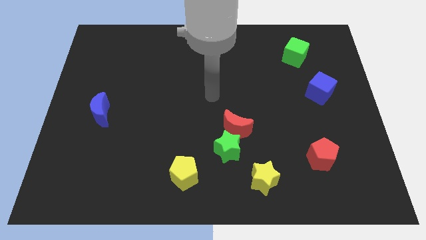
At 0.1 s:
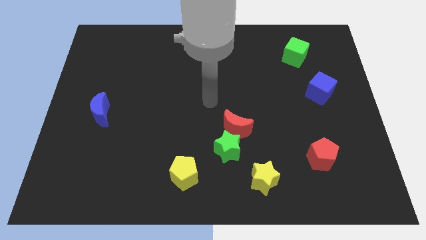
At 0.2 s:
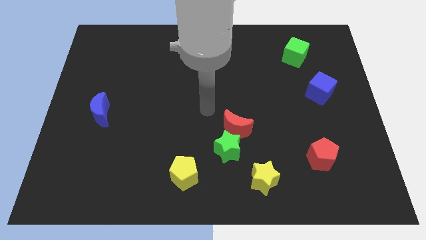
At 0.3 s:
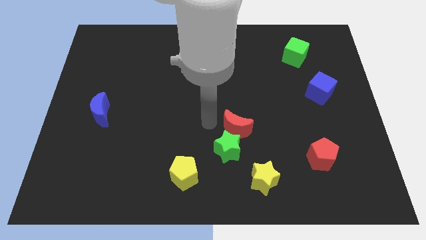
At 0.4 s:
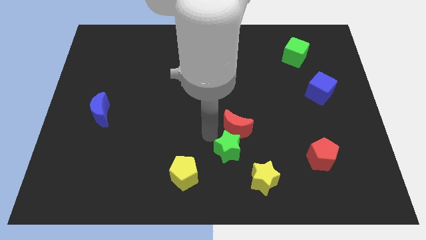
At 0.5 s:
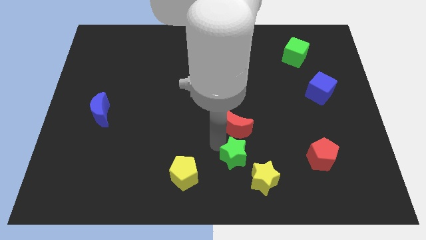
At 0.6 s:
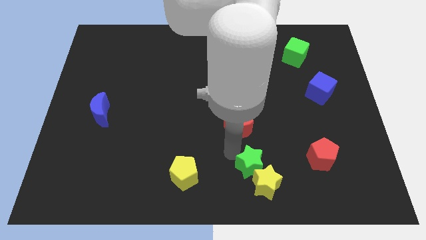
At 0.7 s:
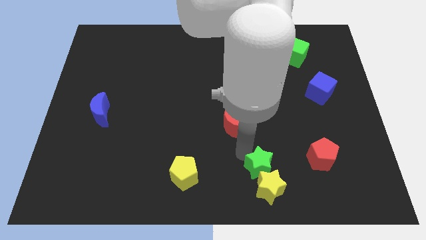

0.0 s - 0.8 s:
pull the red moon apart from the green star

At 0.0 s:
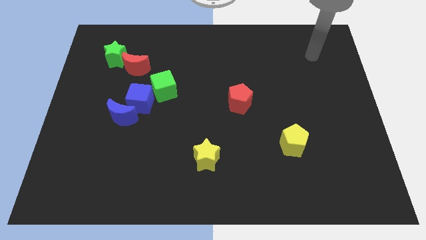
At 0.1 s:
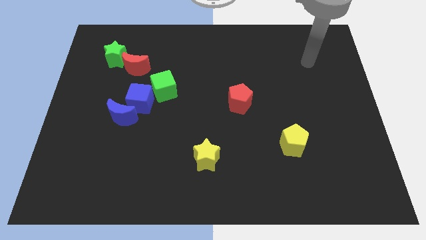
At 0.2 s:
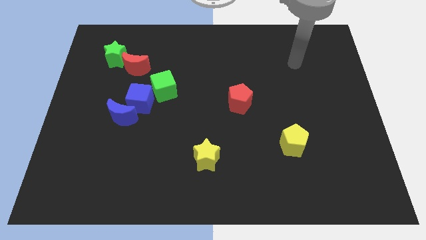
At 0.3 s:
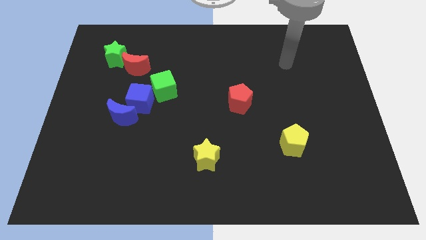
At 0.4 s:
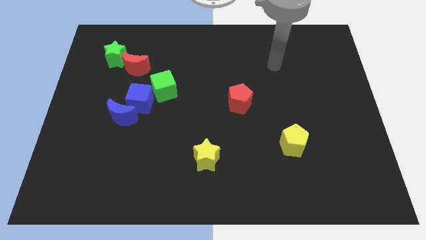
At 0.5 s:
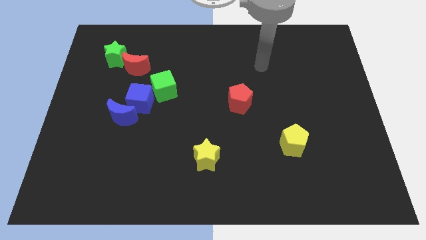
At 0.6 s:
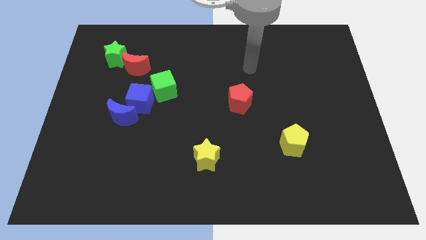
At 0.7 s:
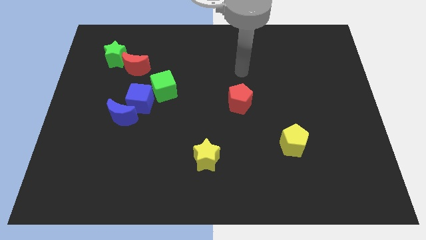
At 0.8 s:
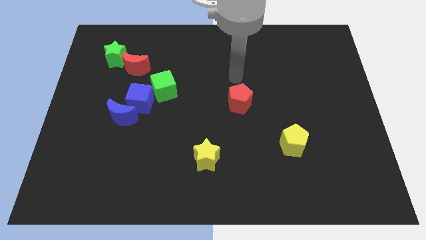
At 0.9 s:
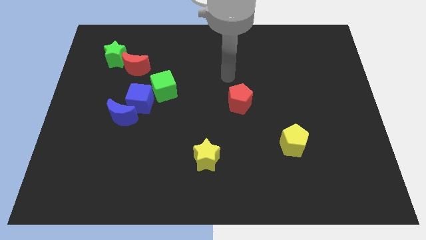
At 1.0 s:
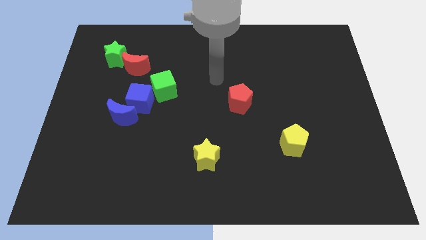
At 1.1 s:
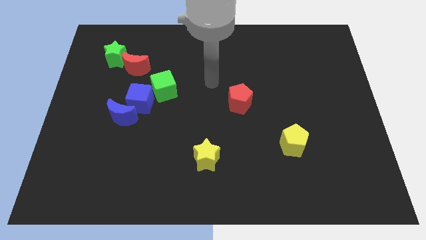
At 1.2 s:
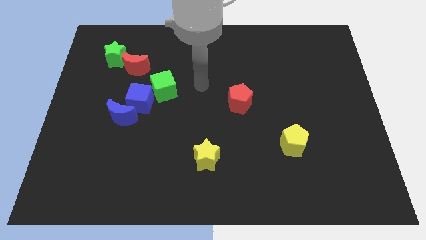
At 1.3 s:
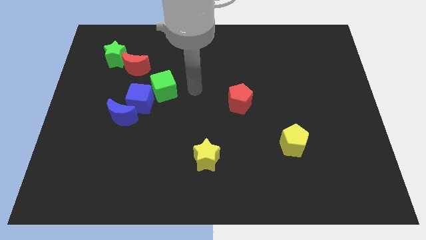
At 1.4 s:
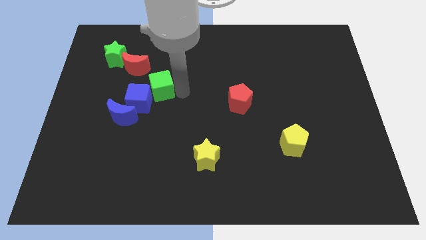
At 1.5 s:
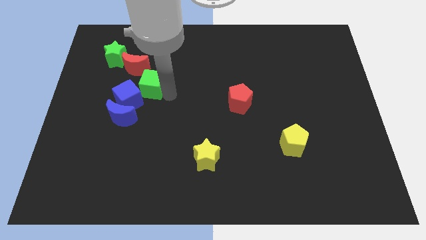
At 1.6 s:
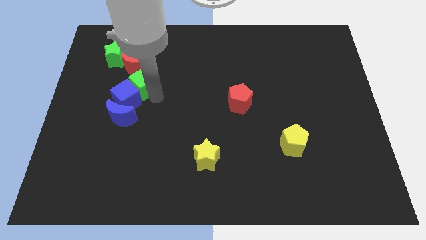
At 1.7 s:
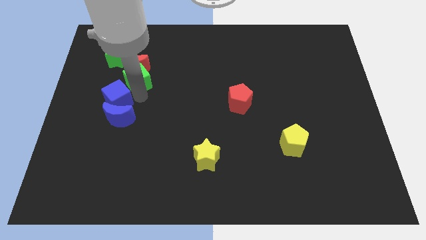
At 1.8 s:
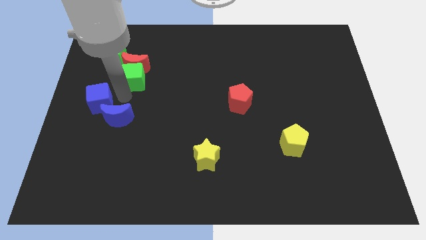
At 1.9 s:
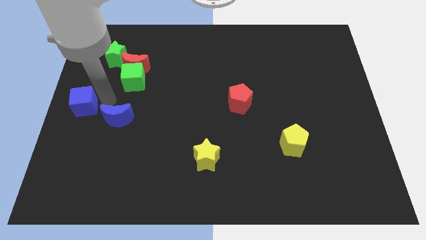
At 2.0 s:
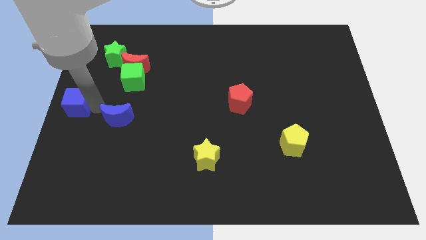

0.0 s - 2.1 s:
separate the blue moon from the blue cube

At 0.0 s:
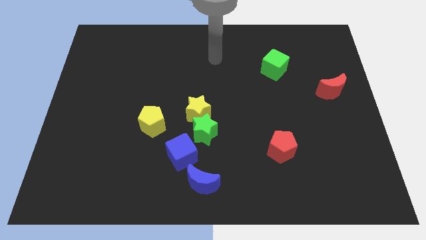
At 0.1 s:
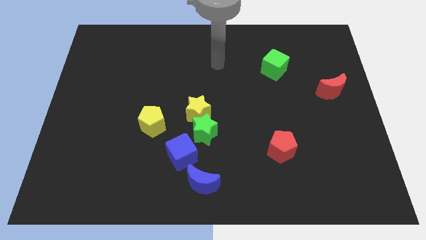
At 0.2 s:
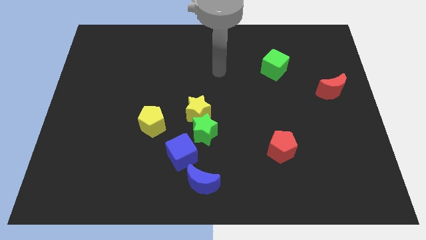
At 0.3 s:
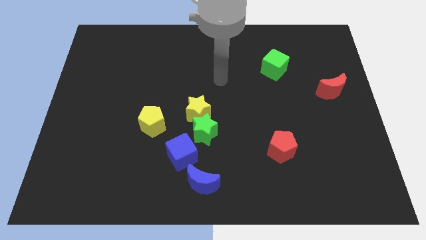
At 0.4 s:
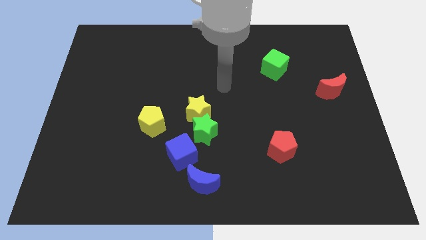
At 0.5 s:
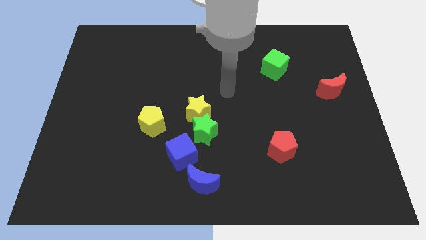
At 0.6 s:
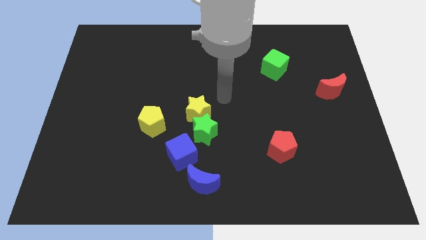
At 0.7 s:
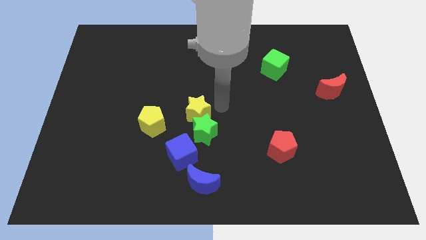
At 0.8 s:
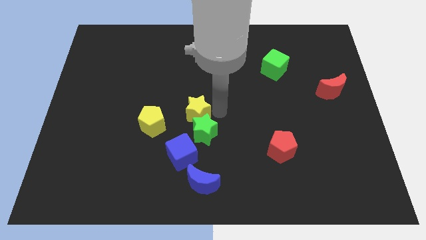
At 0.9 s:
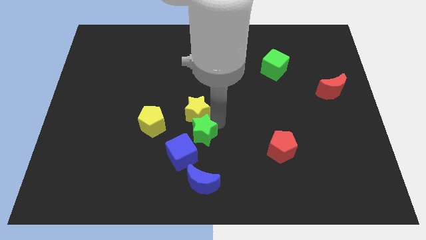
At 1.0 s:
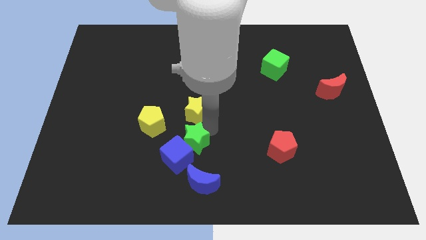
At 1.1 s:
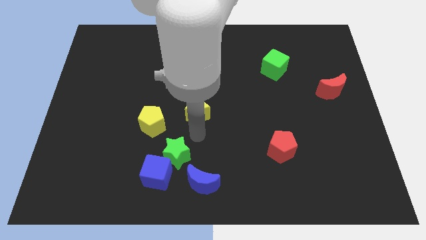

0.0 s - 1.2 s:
move the yellow star away from the green star

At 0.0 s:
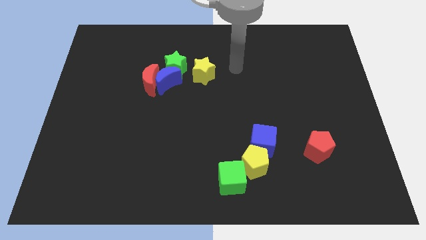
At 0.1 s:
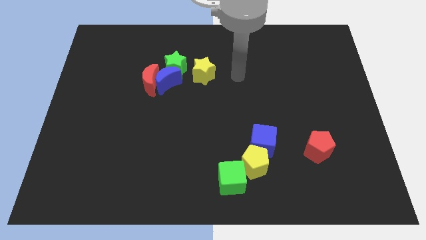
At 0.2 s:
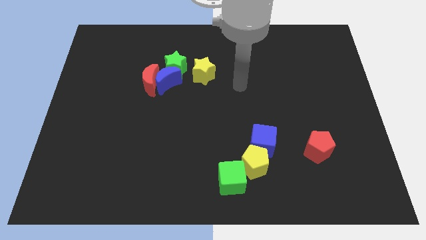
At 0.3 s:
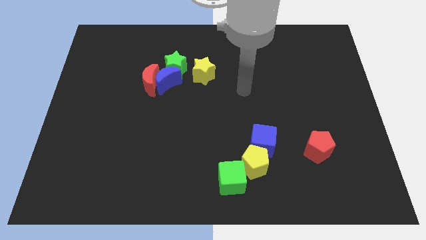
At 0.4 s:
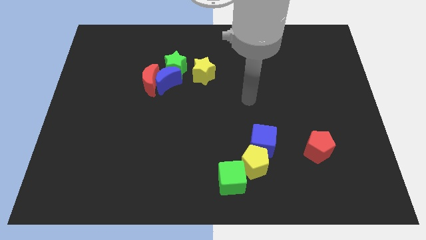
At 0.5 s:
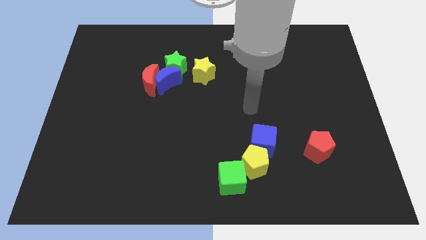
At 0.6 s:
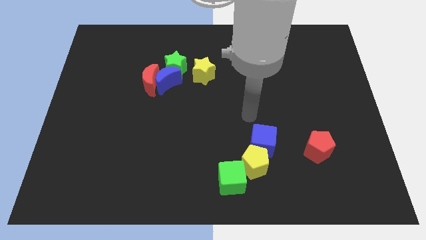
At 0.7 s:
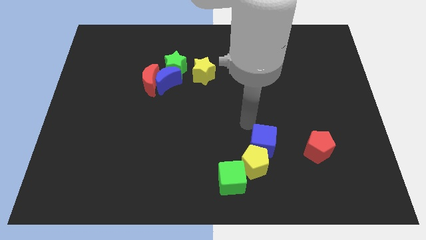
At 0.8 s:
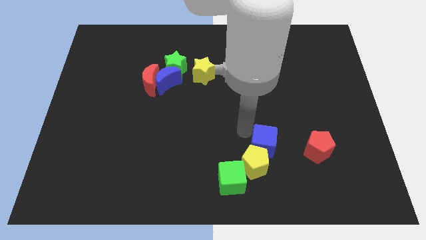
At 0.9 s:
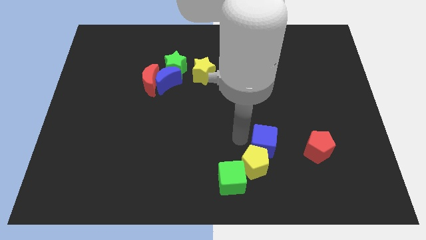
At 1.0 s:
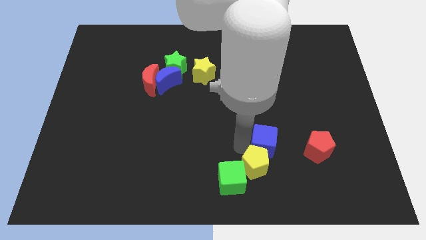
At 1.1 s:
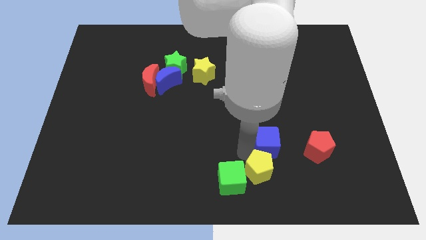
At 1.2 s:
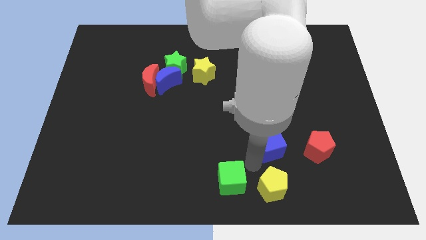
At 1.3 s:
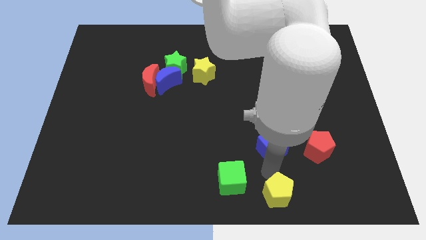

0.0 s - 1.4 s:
pull the blue cube apart from the yellow pentagon

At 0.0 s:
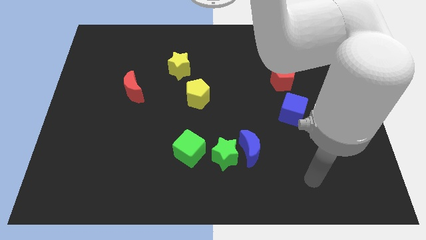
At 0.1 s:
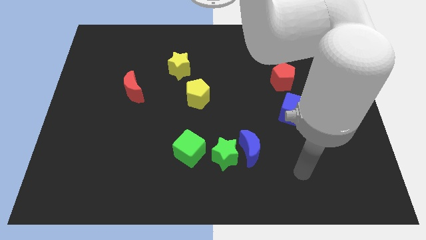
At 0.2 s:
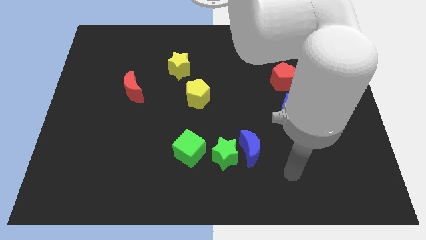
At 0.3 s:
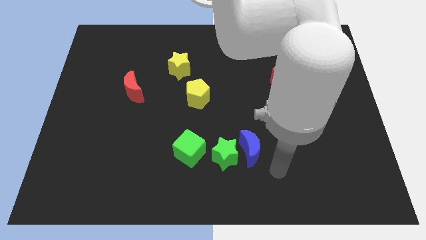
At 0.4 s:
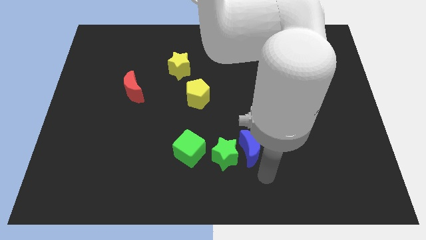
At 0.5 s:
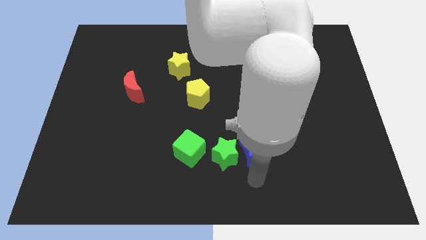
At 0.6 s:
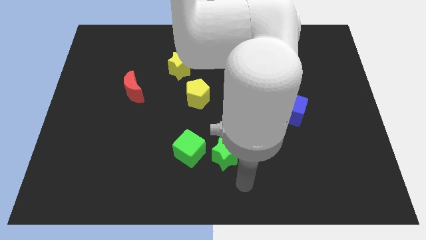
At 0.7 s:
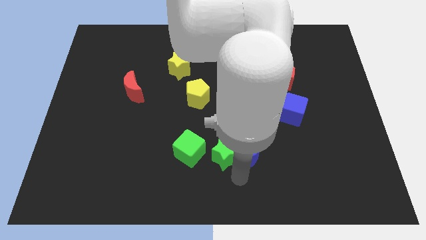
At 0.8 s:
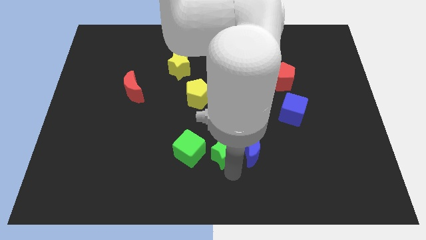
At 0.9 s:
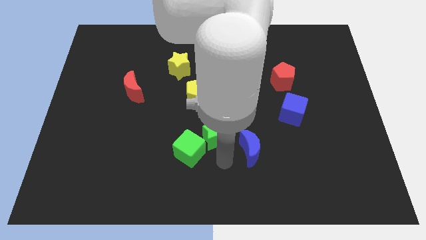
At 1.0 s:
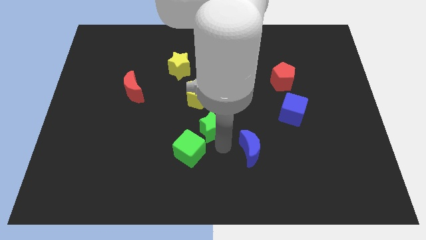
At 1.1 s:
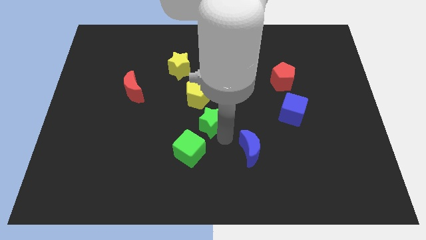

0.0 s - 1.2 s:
pull the blue moon apart from the green star

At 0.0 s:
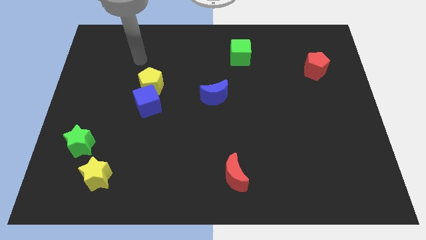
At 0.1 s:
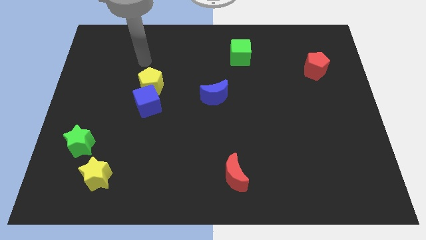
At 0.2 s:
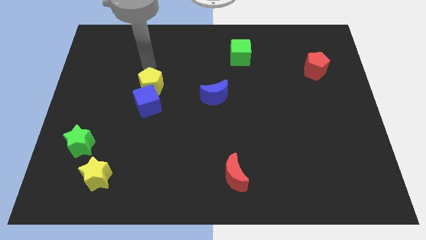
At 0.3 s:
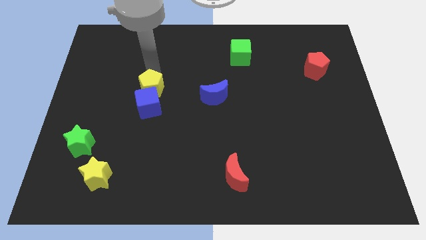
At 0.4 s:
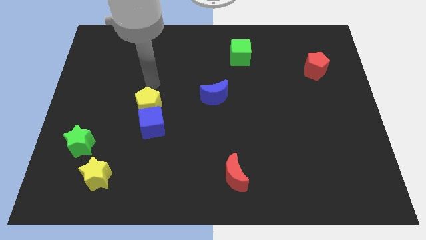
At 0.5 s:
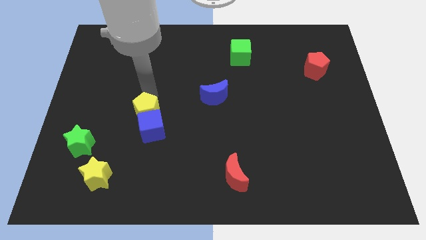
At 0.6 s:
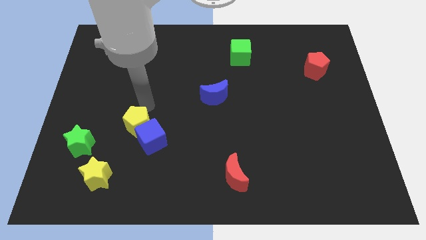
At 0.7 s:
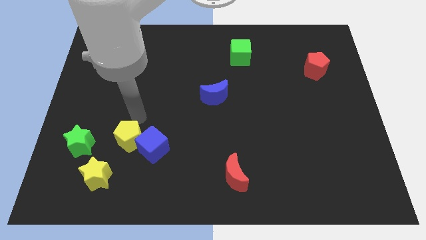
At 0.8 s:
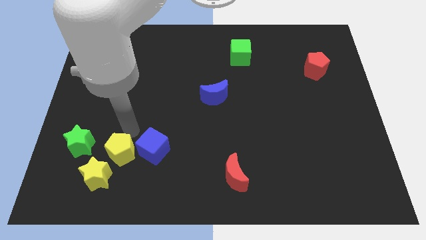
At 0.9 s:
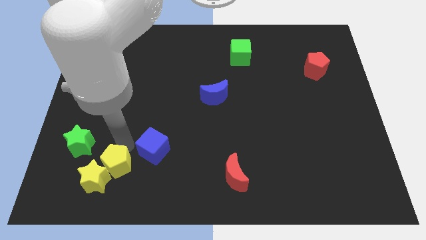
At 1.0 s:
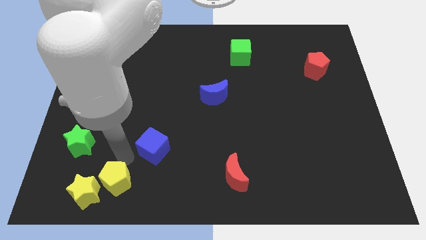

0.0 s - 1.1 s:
separate the blue cube from the yellow pentagon

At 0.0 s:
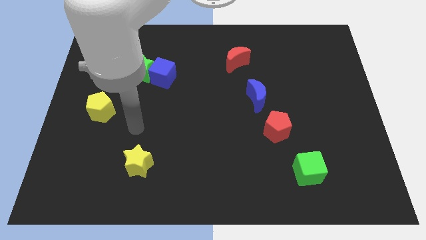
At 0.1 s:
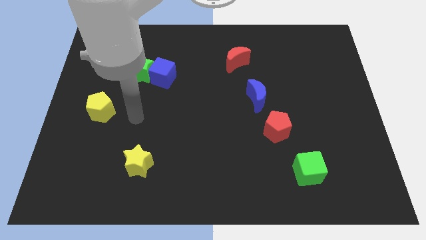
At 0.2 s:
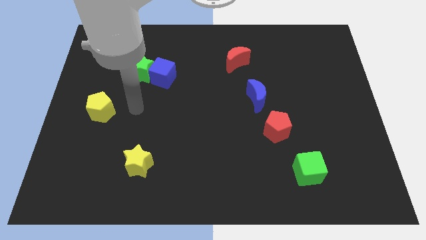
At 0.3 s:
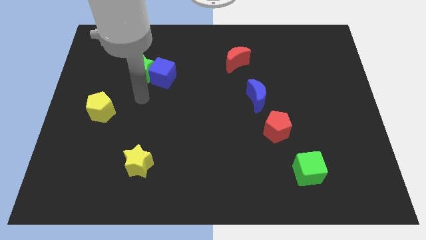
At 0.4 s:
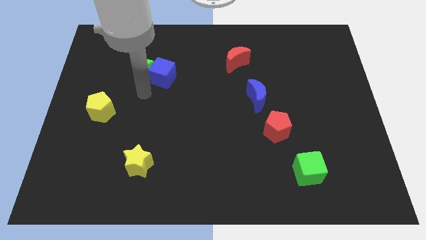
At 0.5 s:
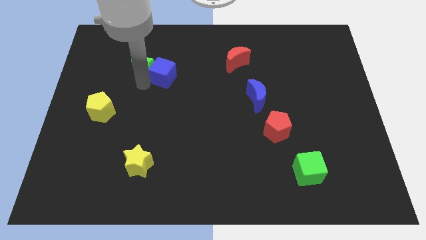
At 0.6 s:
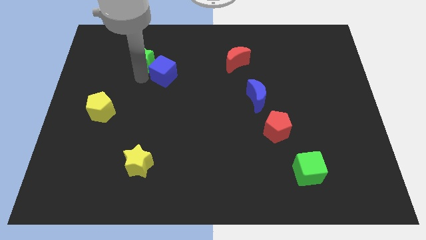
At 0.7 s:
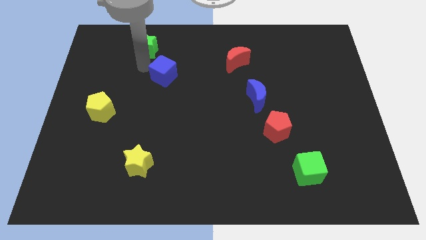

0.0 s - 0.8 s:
move the blue cube away from the green star

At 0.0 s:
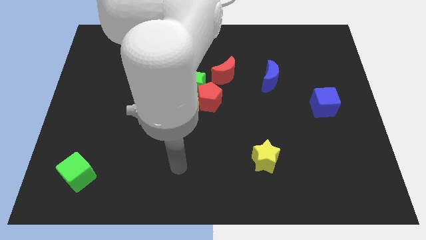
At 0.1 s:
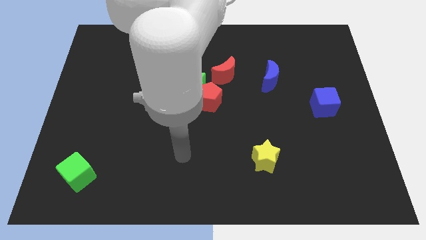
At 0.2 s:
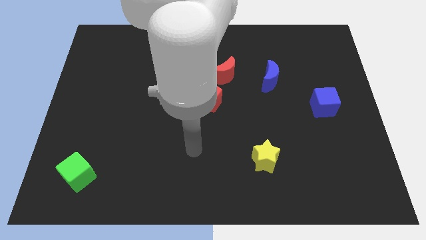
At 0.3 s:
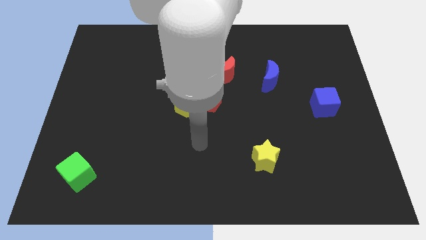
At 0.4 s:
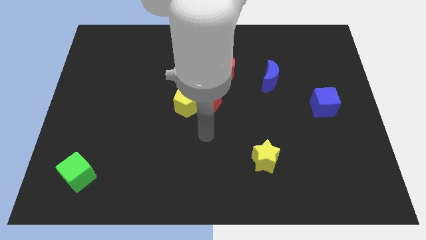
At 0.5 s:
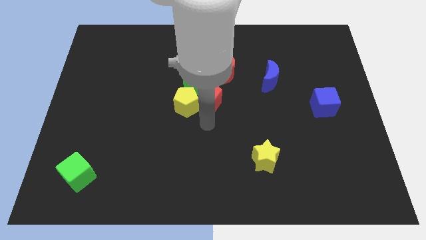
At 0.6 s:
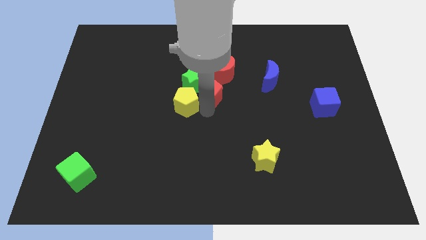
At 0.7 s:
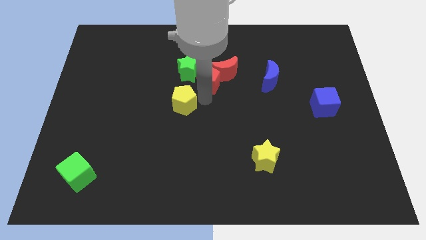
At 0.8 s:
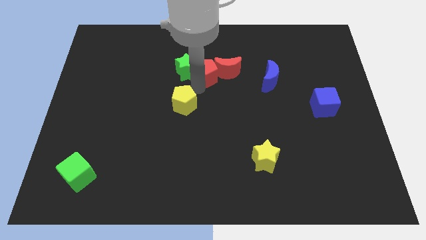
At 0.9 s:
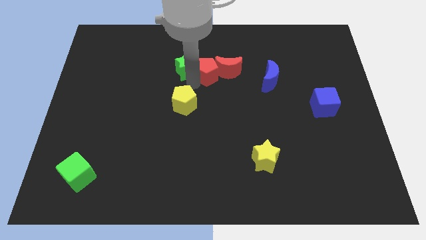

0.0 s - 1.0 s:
move the yellow pentagon away from the red pentagon and green star
